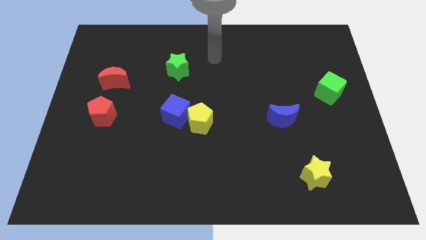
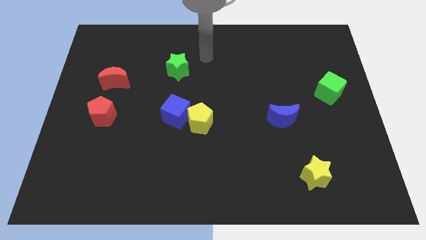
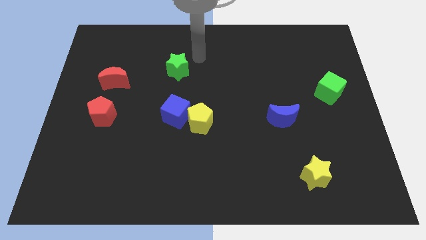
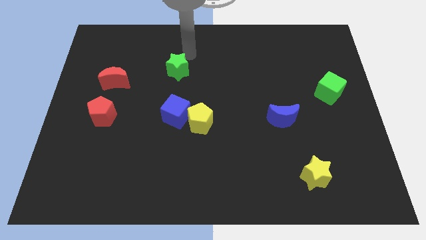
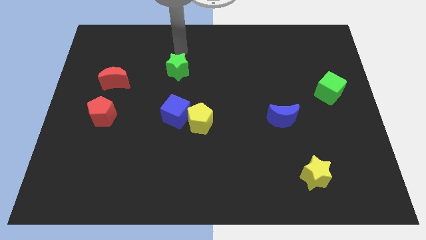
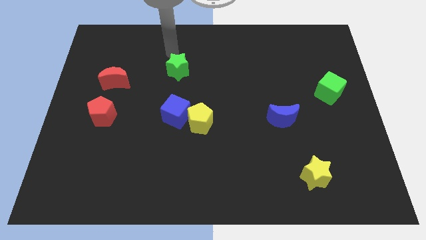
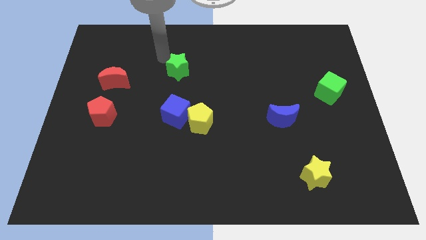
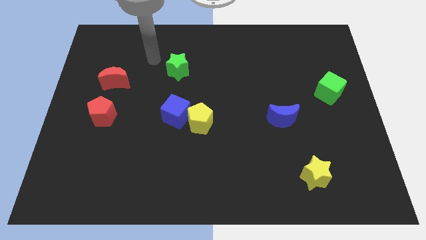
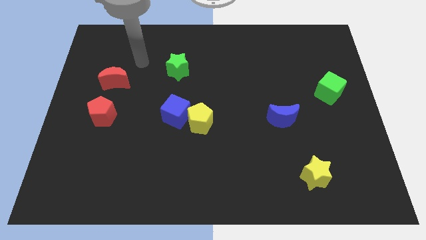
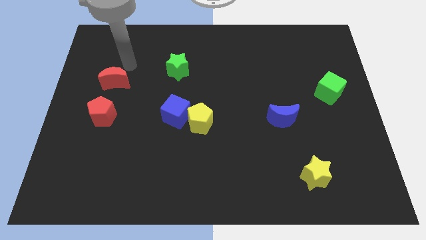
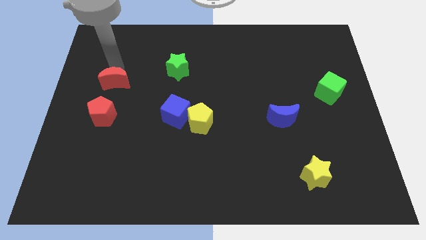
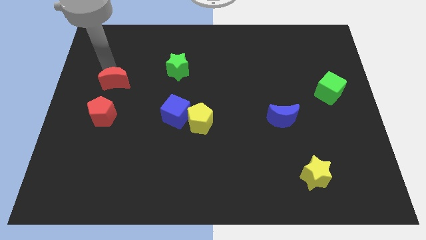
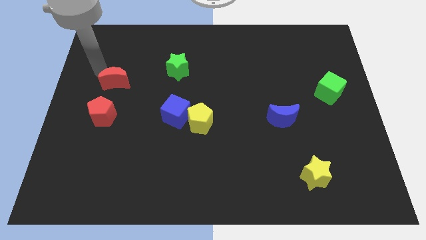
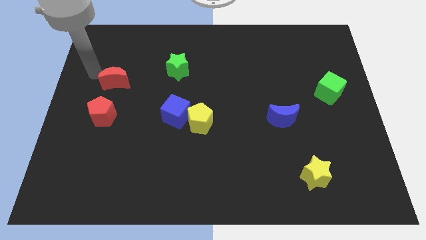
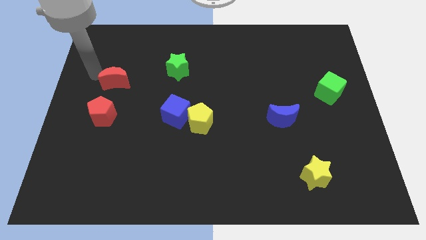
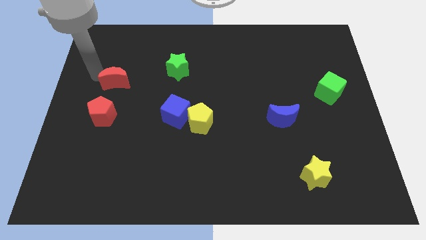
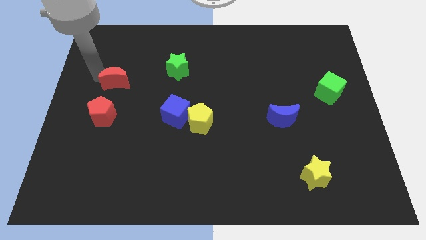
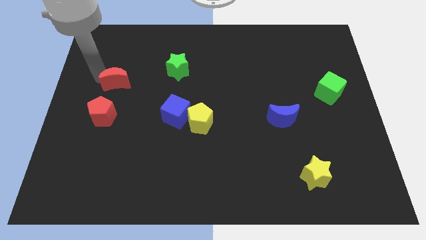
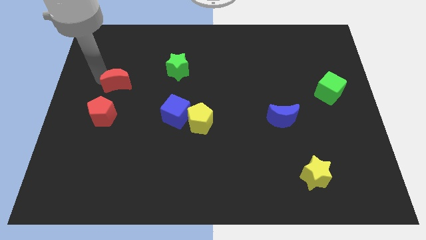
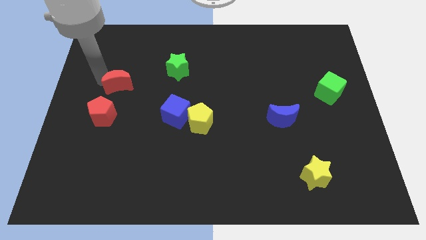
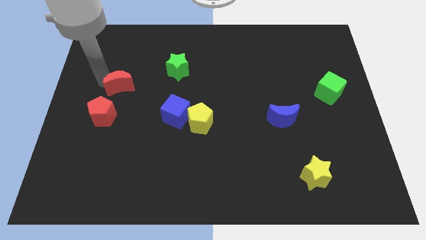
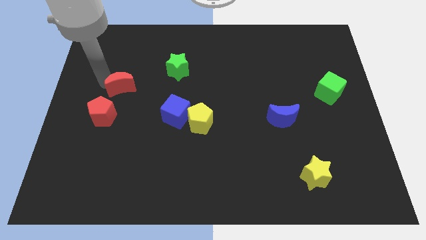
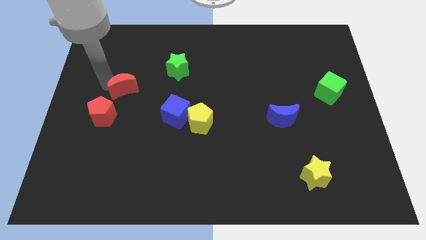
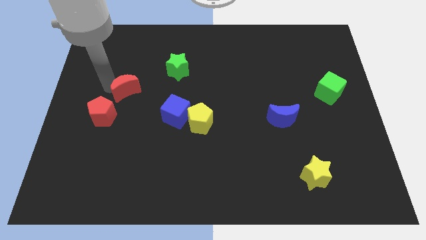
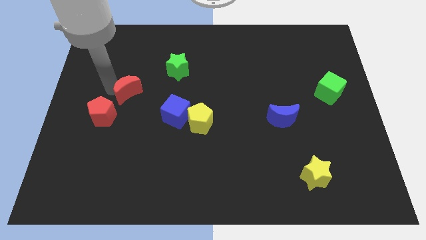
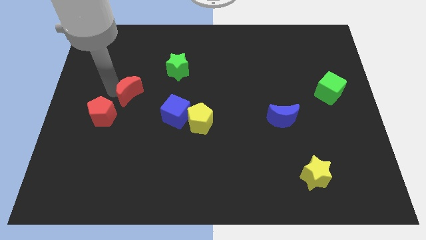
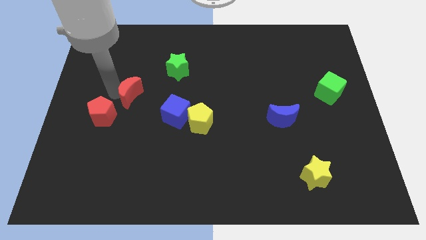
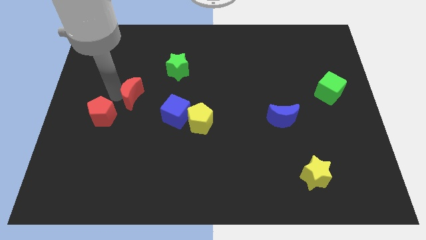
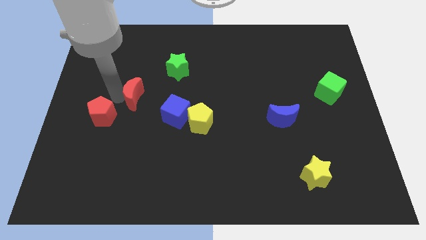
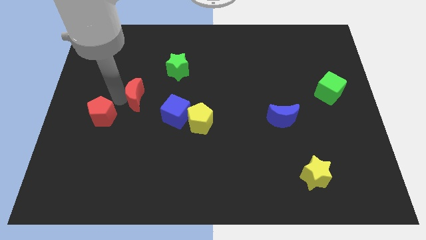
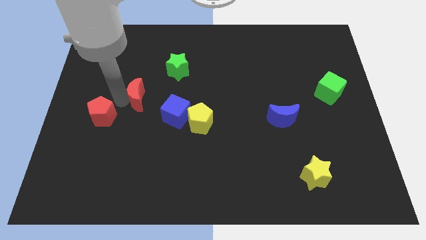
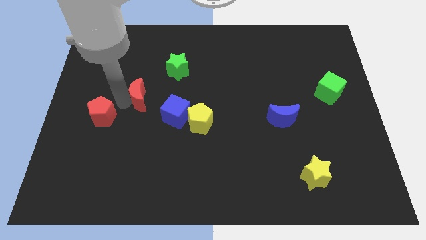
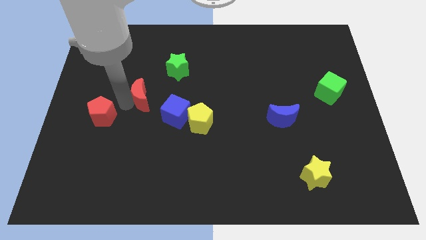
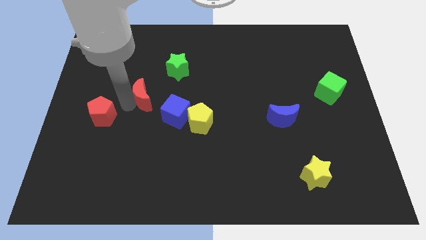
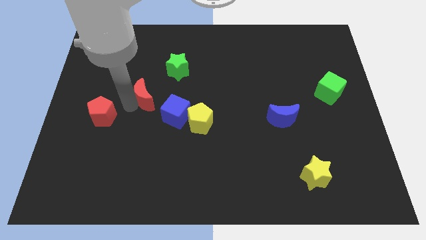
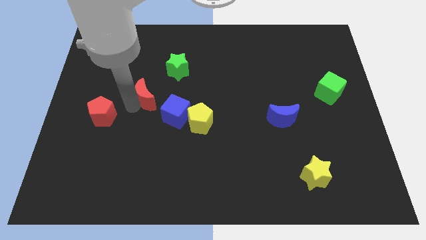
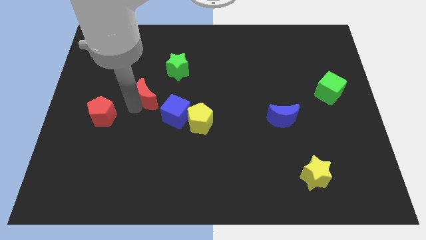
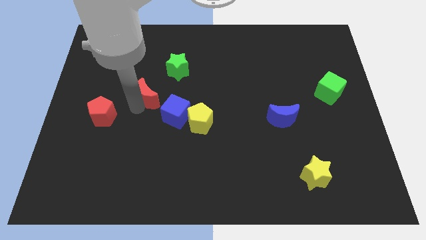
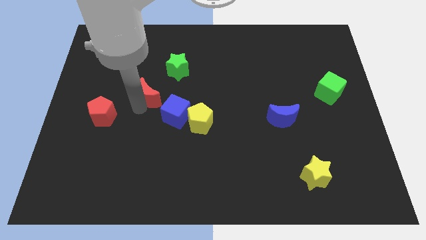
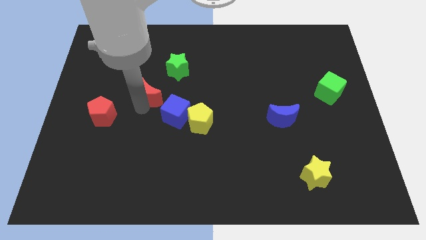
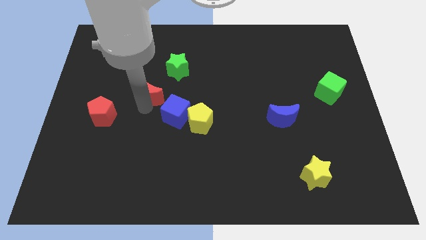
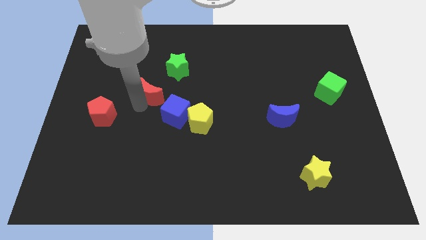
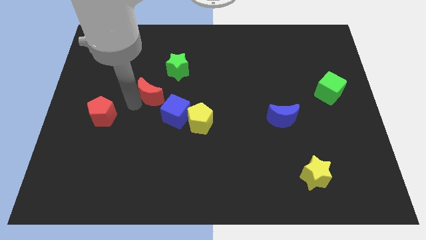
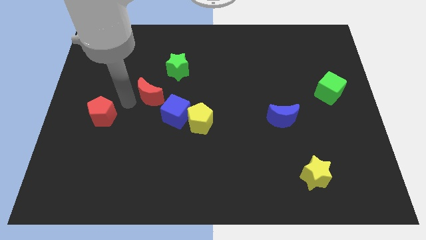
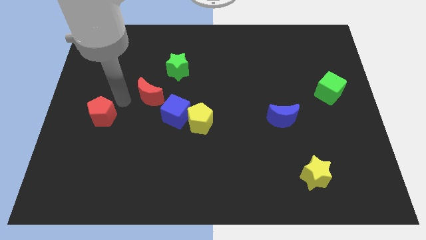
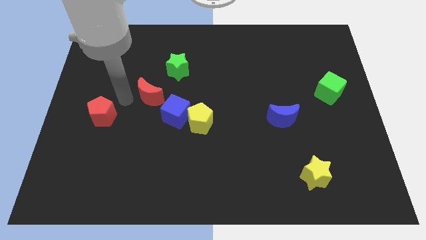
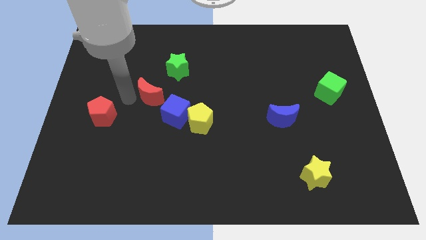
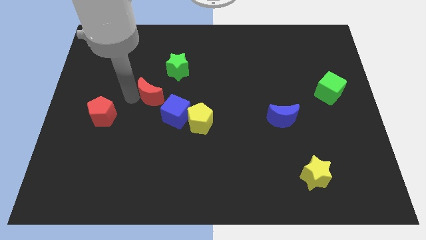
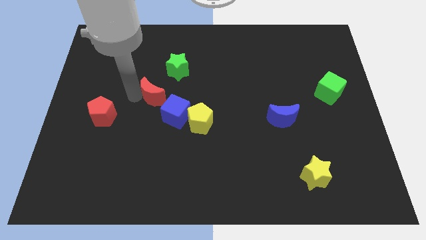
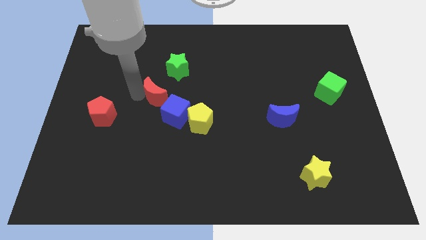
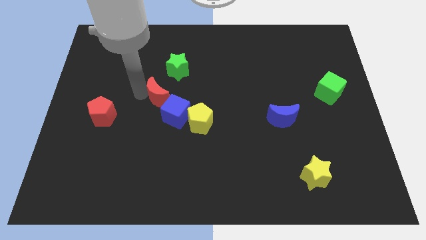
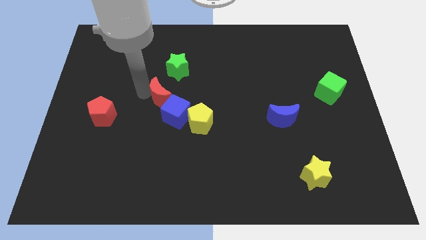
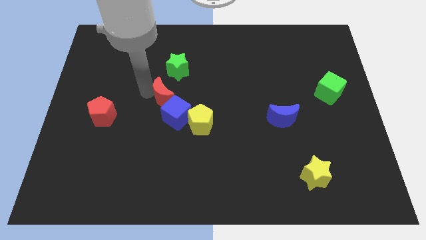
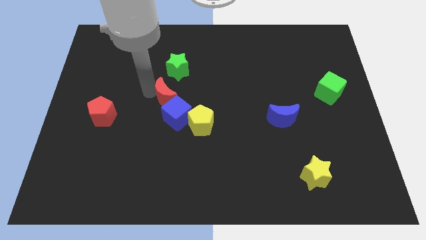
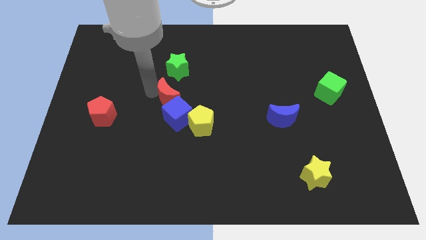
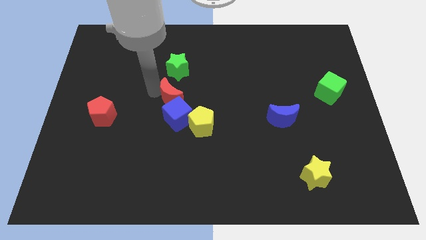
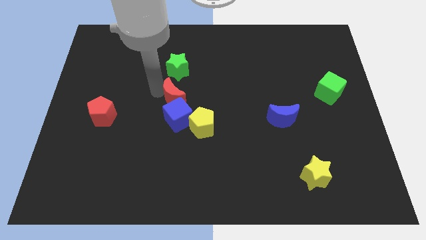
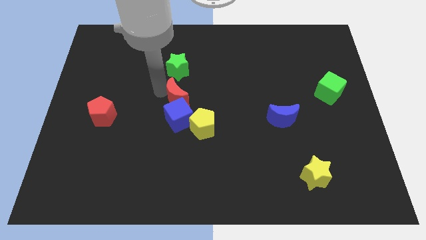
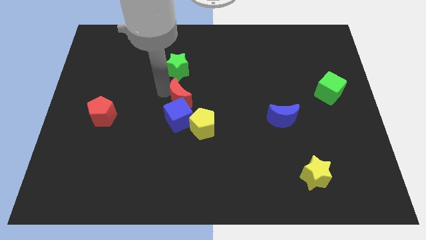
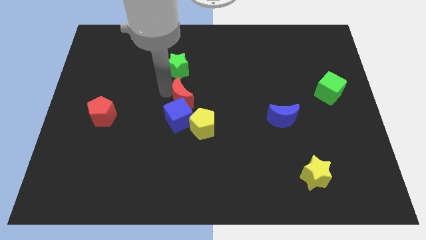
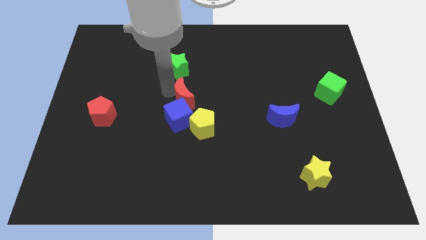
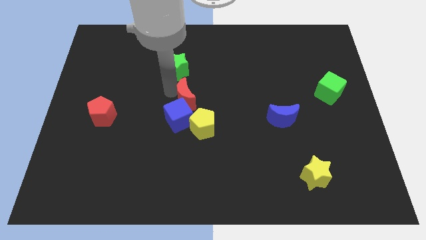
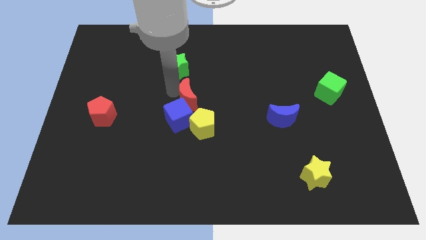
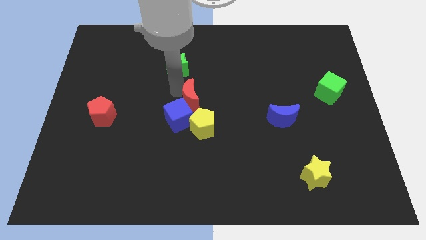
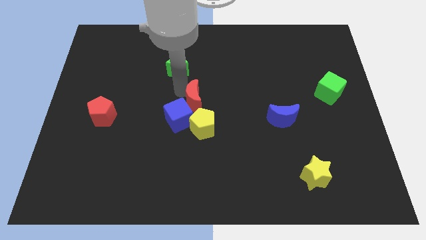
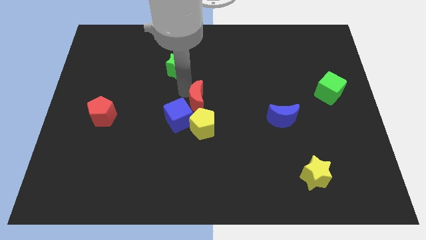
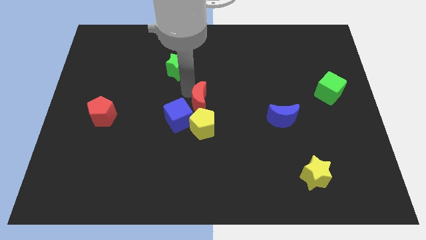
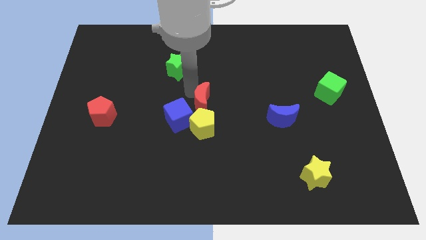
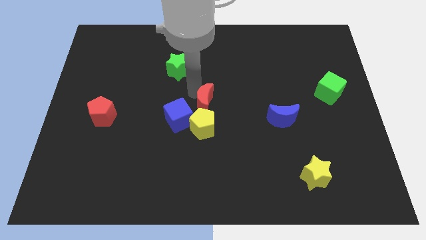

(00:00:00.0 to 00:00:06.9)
push the red moon diagonally up and to the right of the yellow pentagon
